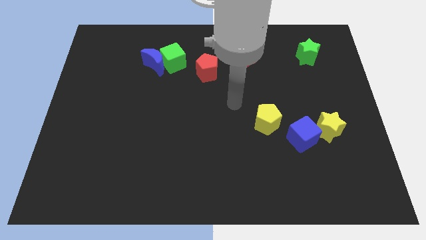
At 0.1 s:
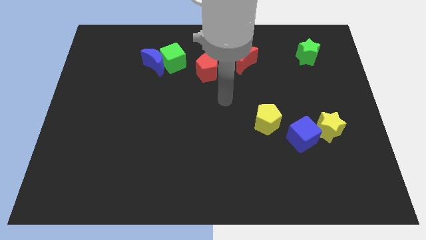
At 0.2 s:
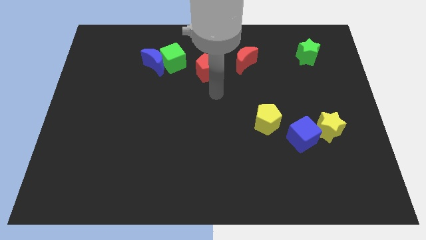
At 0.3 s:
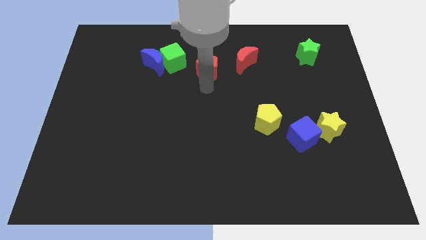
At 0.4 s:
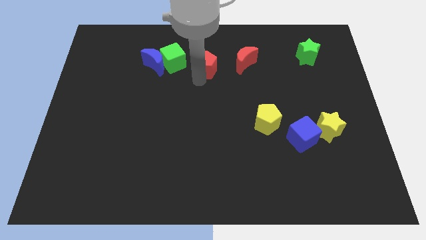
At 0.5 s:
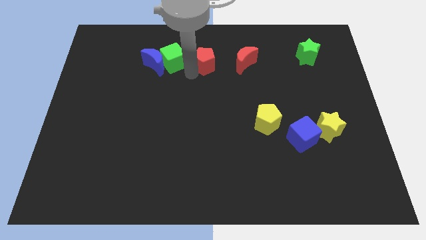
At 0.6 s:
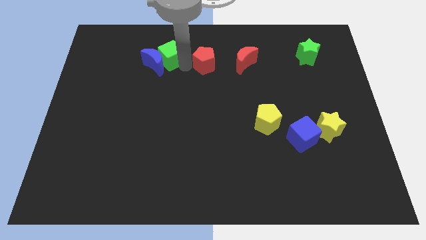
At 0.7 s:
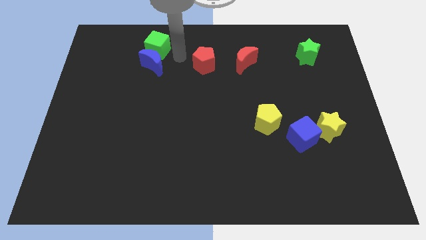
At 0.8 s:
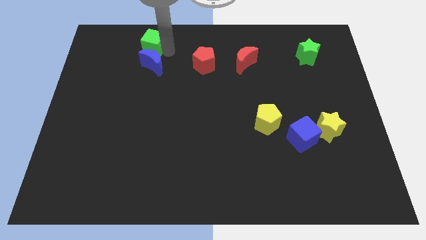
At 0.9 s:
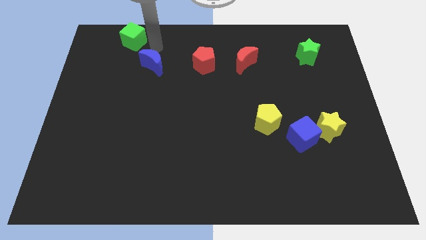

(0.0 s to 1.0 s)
pull the blue moon apart from the green cube

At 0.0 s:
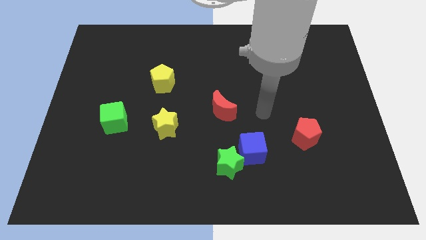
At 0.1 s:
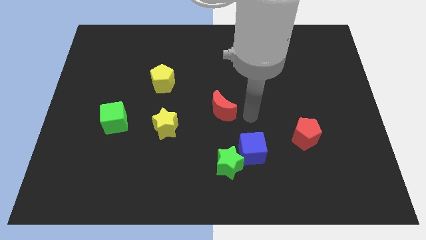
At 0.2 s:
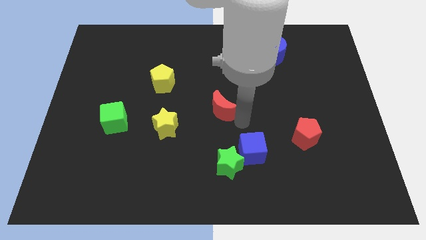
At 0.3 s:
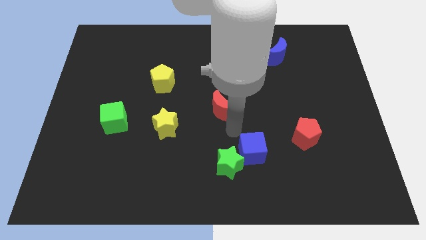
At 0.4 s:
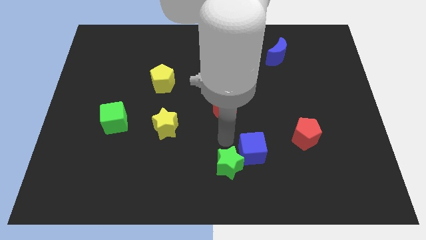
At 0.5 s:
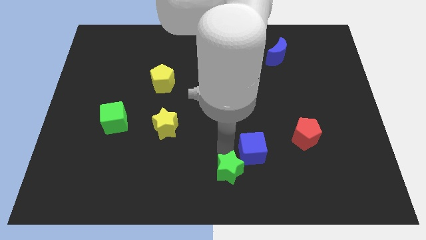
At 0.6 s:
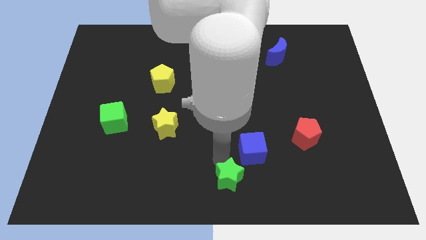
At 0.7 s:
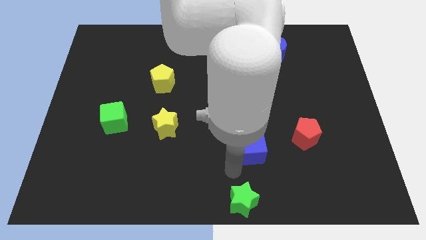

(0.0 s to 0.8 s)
pull the blue cube apart from the green star

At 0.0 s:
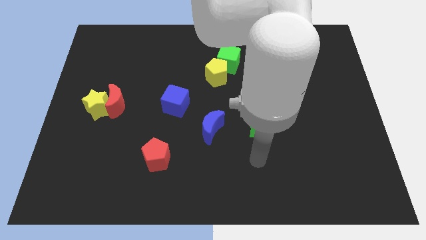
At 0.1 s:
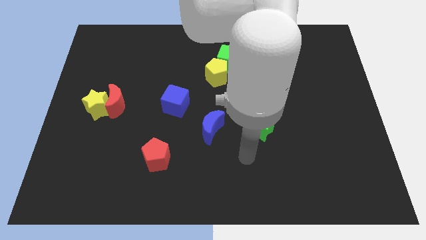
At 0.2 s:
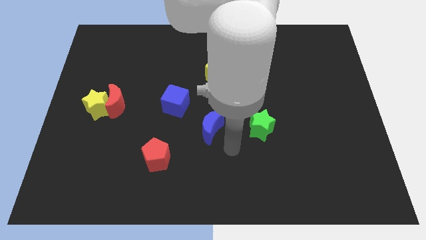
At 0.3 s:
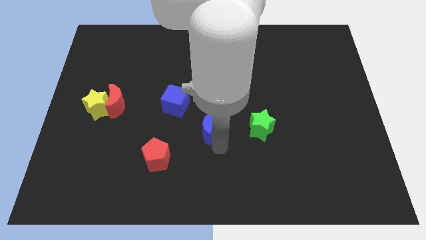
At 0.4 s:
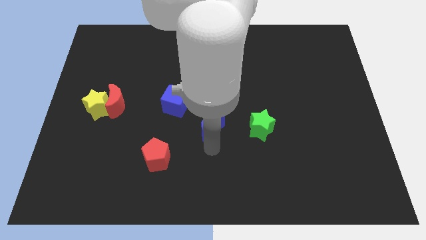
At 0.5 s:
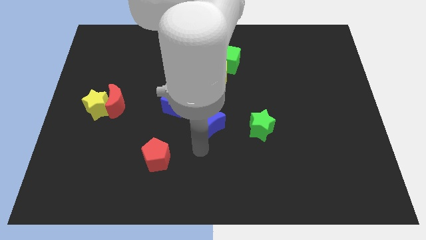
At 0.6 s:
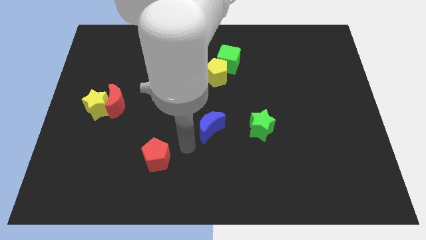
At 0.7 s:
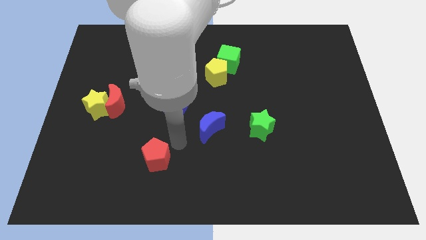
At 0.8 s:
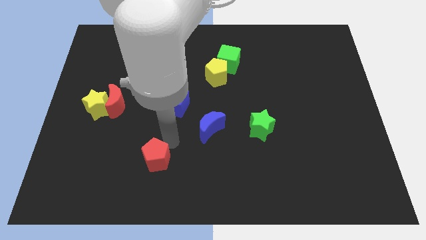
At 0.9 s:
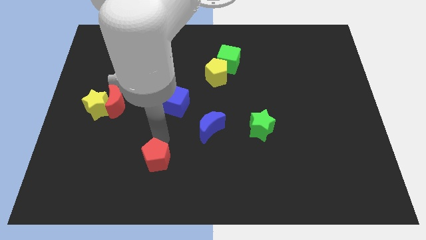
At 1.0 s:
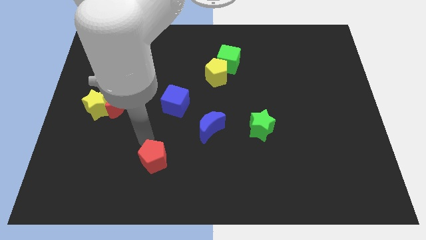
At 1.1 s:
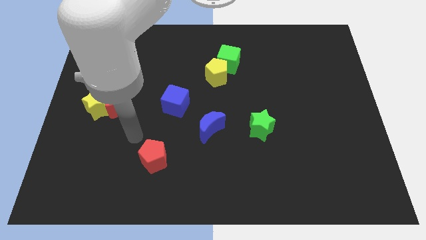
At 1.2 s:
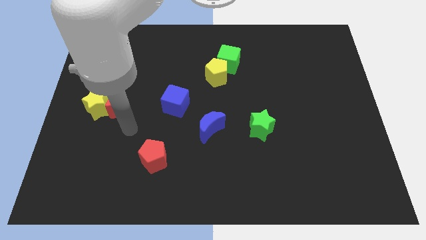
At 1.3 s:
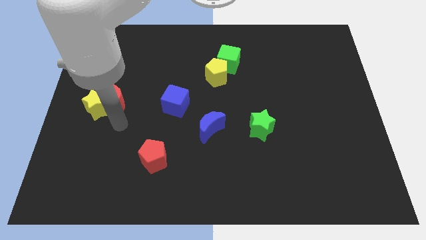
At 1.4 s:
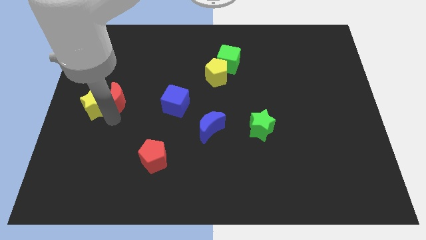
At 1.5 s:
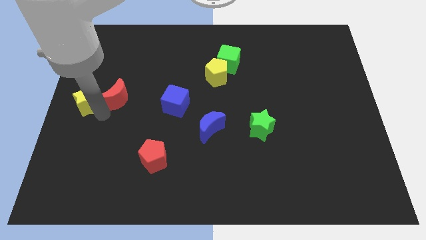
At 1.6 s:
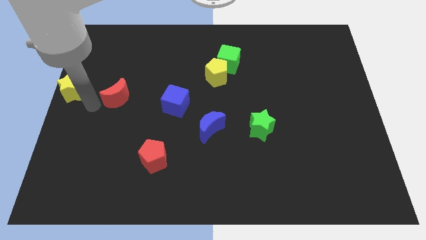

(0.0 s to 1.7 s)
move the red moon away from the yellow star

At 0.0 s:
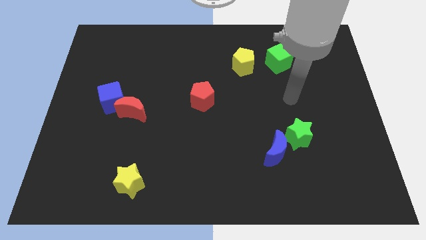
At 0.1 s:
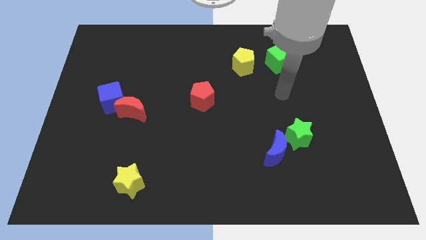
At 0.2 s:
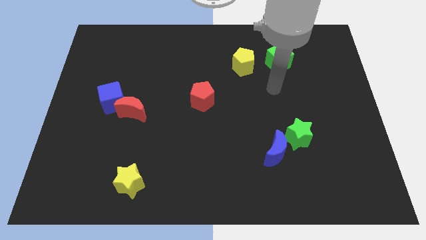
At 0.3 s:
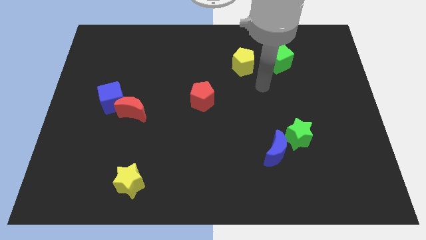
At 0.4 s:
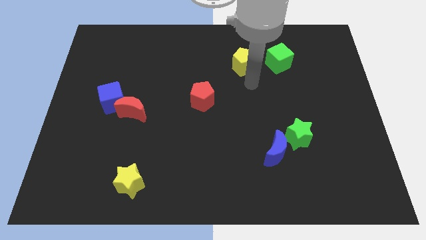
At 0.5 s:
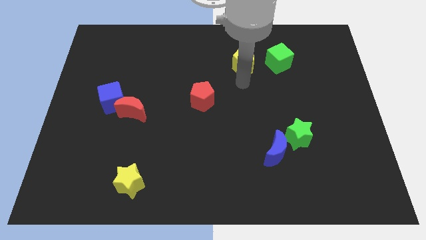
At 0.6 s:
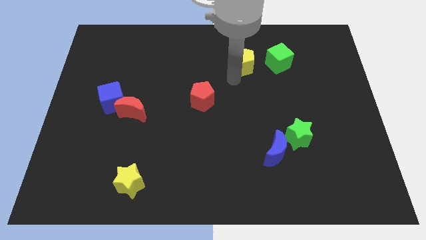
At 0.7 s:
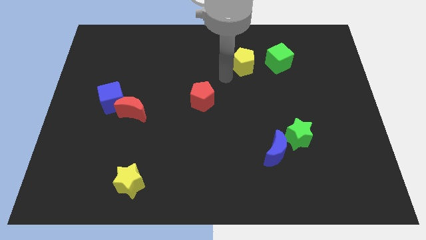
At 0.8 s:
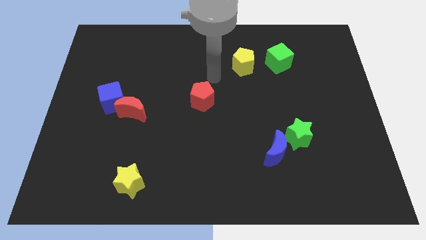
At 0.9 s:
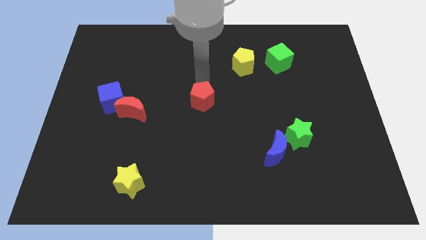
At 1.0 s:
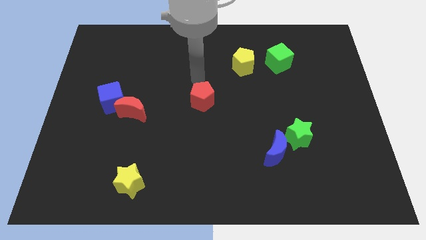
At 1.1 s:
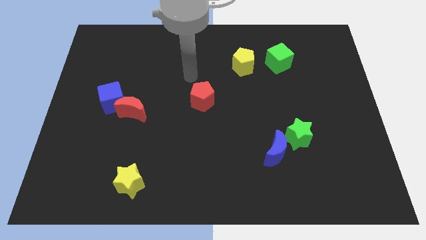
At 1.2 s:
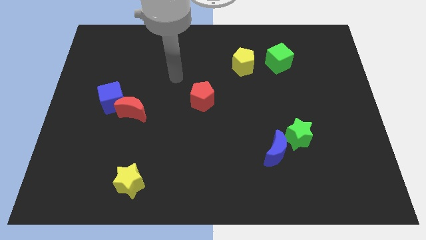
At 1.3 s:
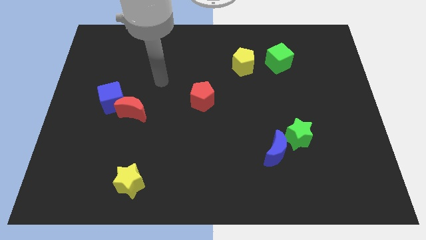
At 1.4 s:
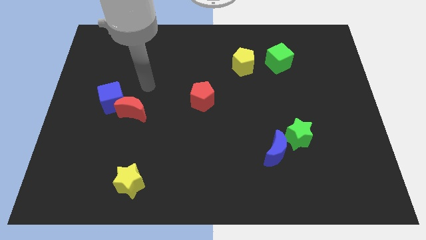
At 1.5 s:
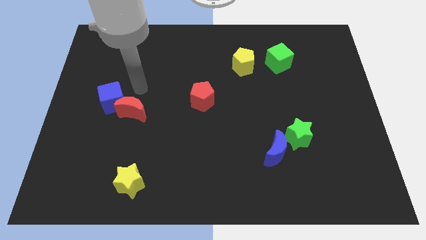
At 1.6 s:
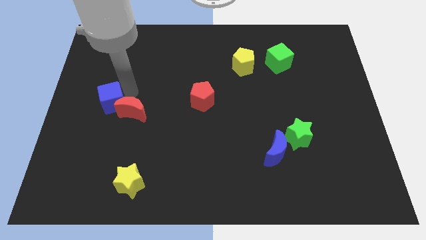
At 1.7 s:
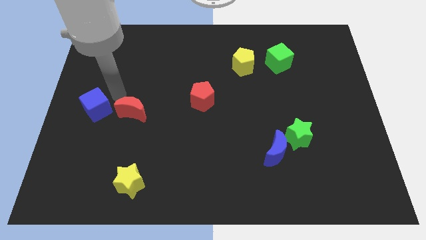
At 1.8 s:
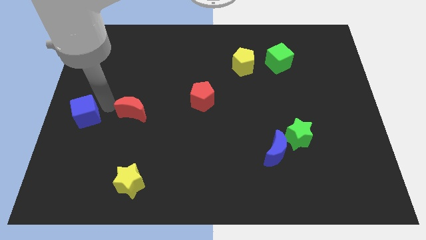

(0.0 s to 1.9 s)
move the red moon away from the blue cube

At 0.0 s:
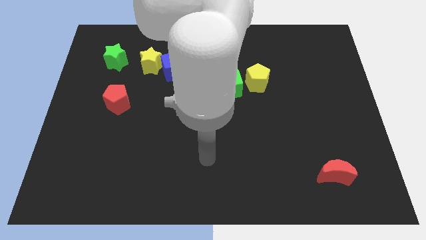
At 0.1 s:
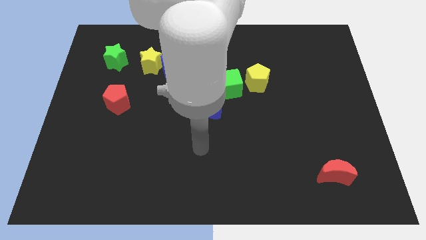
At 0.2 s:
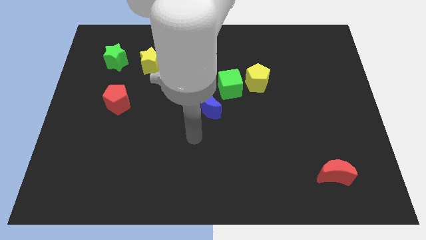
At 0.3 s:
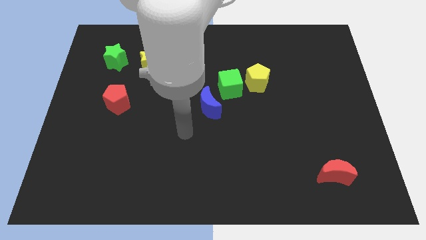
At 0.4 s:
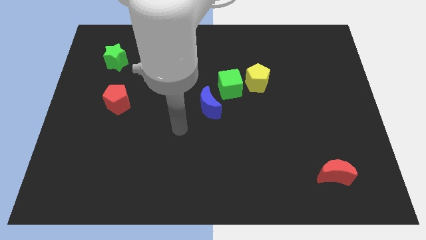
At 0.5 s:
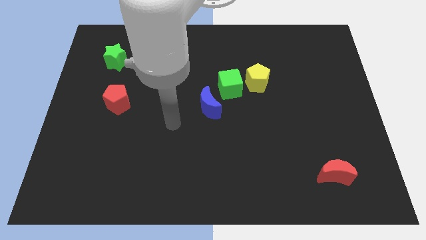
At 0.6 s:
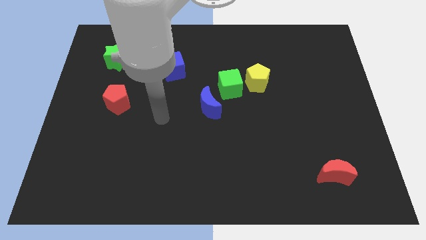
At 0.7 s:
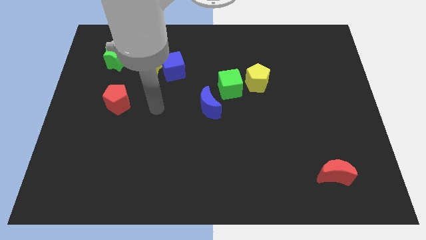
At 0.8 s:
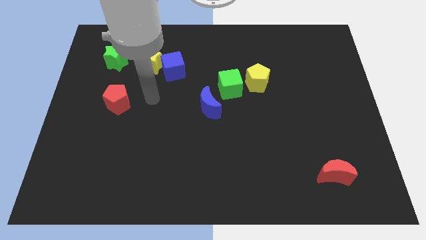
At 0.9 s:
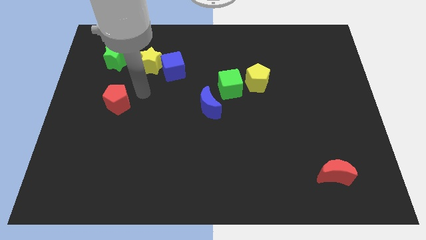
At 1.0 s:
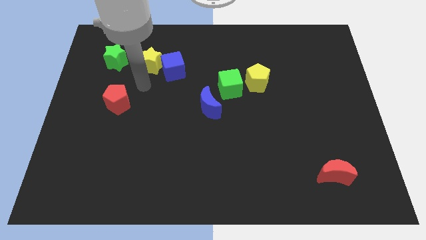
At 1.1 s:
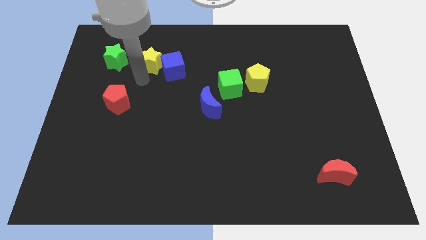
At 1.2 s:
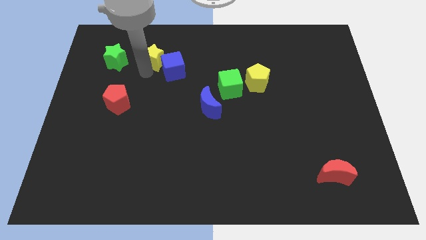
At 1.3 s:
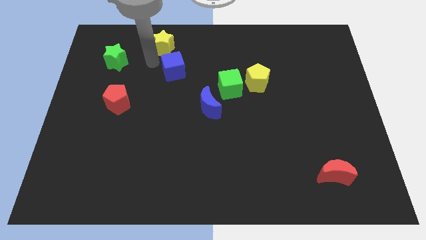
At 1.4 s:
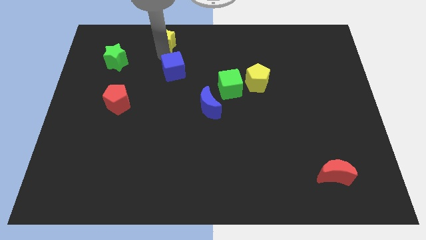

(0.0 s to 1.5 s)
move the blue cube away from the yellow star

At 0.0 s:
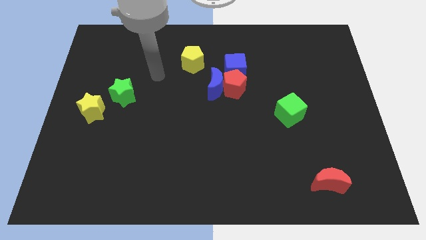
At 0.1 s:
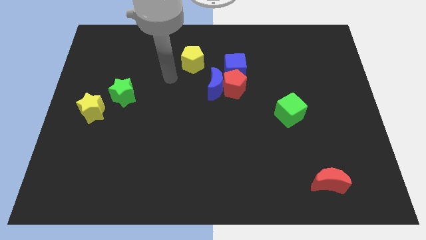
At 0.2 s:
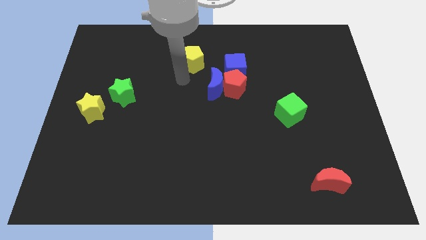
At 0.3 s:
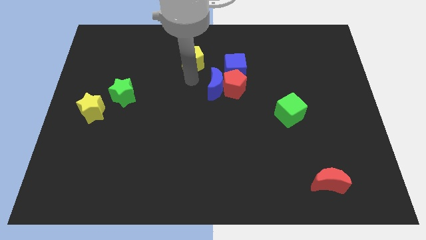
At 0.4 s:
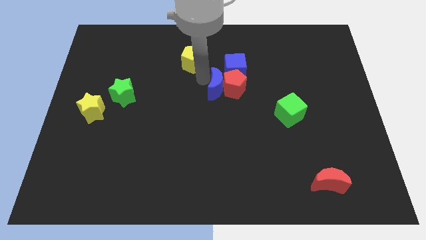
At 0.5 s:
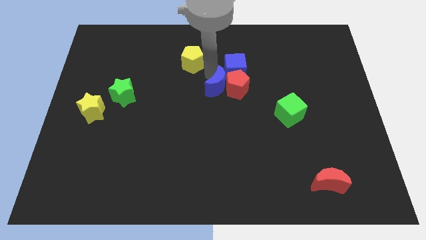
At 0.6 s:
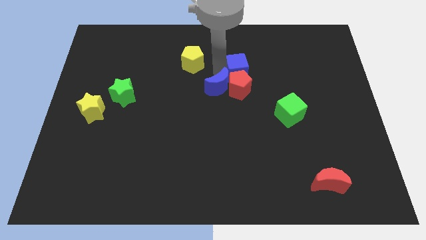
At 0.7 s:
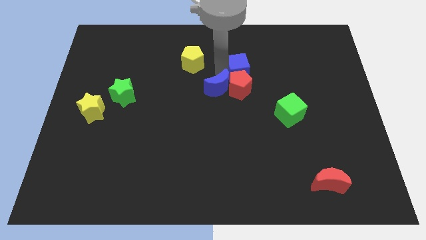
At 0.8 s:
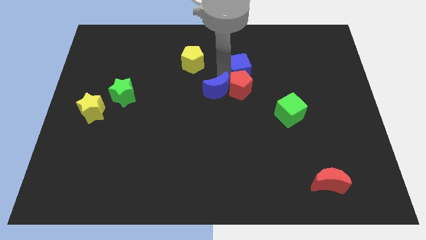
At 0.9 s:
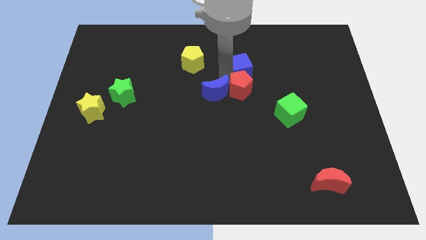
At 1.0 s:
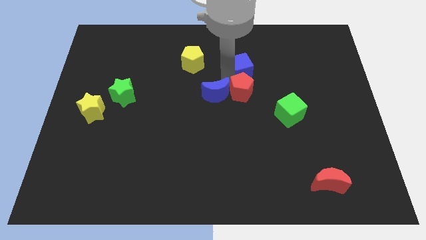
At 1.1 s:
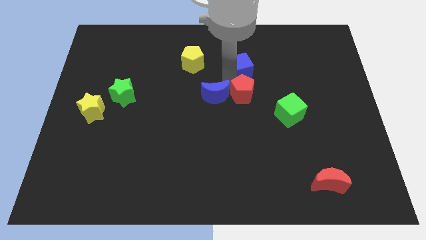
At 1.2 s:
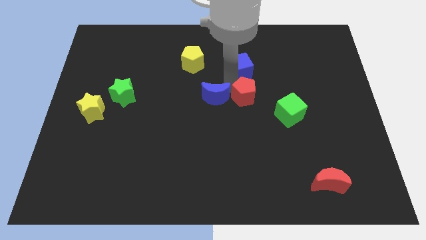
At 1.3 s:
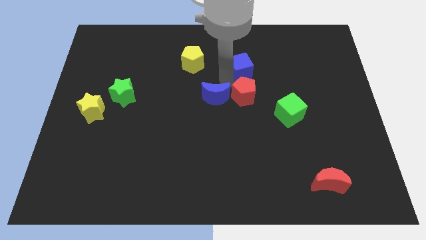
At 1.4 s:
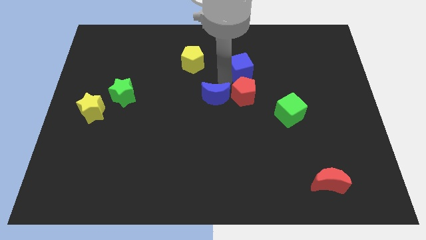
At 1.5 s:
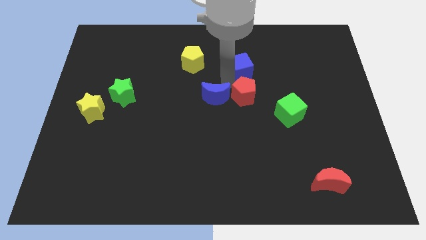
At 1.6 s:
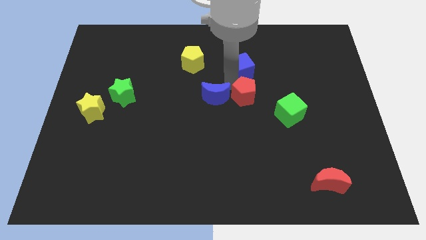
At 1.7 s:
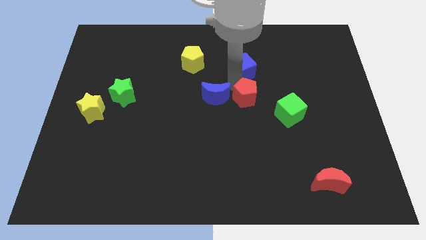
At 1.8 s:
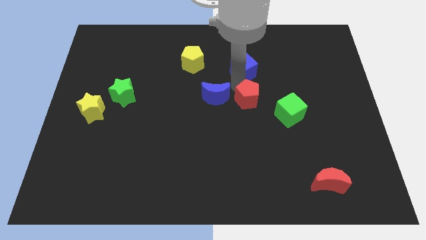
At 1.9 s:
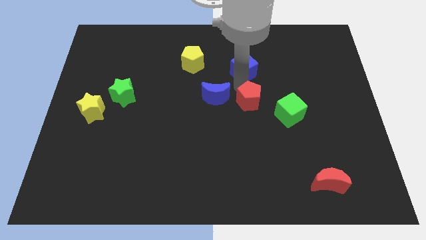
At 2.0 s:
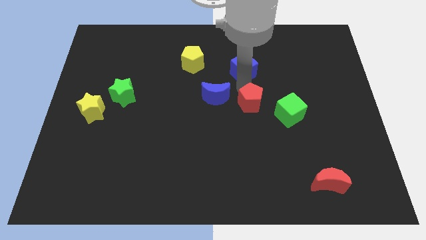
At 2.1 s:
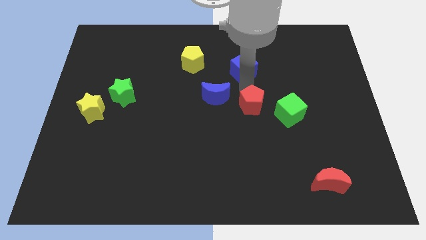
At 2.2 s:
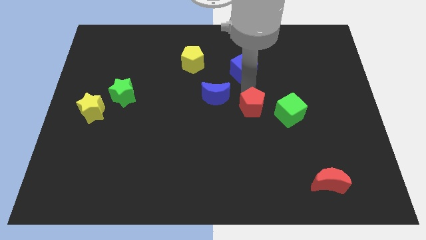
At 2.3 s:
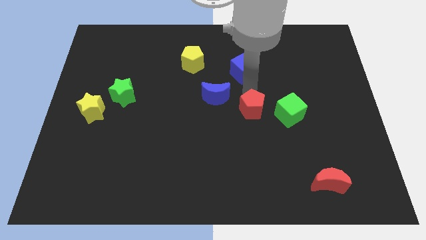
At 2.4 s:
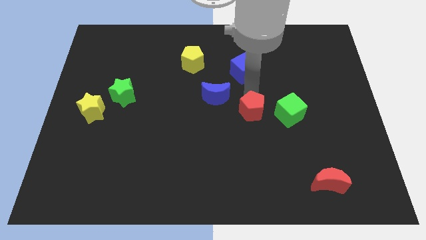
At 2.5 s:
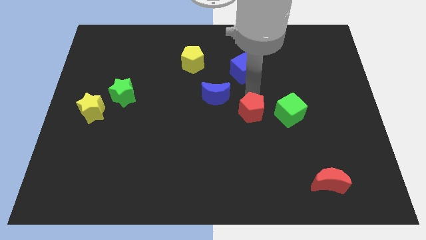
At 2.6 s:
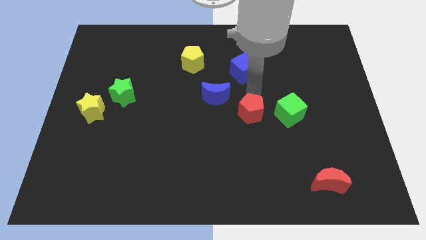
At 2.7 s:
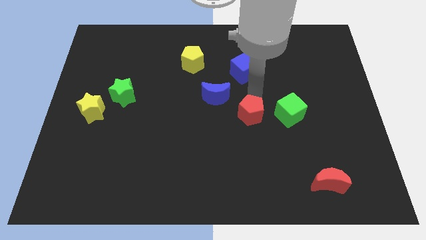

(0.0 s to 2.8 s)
move the red pentagon away from the blue moon and blue cube
